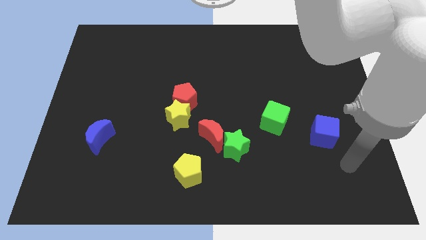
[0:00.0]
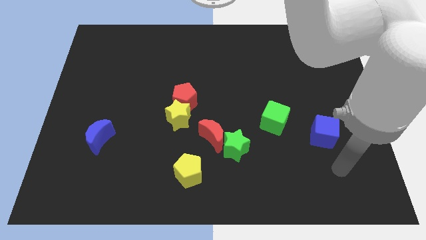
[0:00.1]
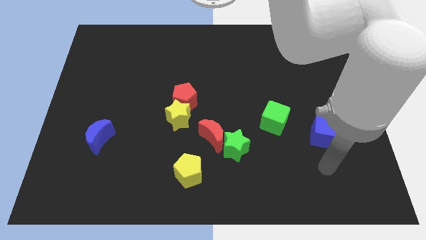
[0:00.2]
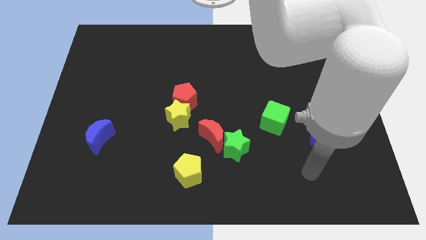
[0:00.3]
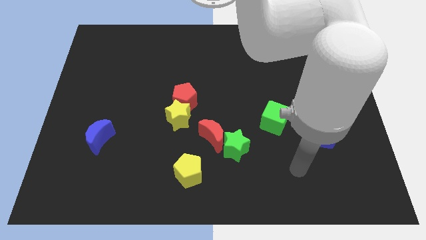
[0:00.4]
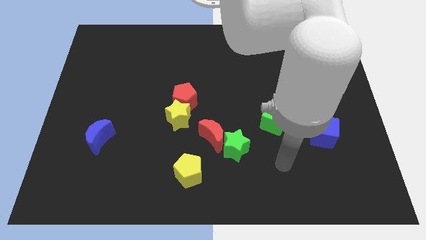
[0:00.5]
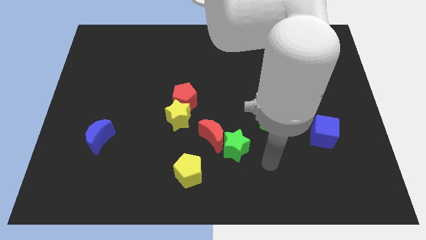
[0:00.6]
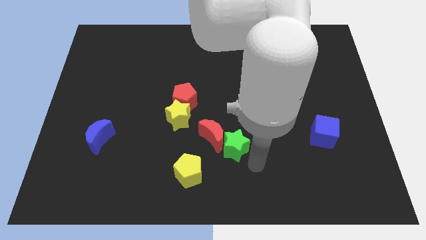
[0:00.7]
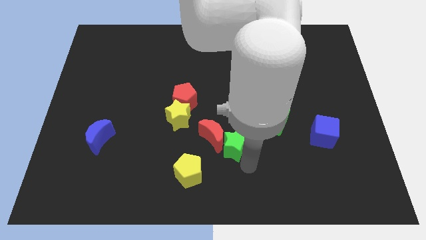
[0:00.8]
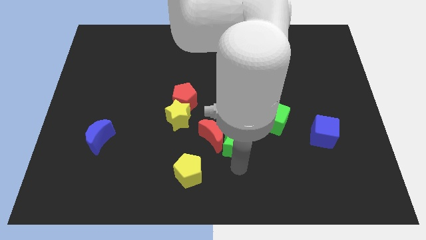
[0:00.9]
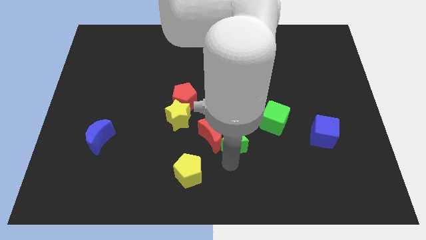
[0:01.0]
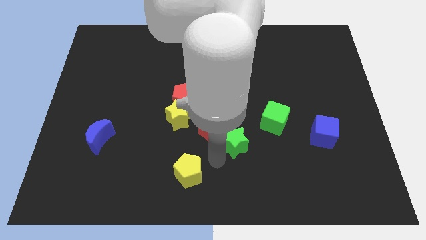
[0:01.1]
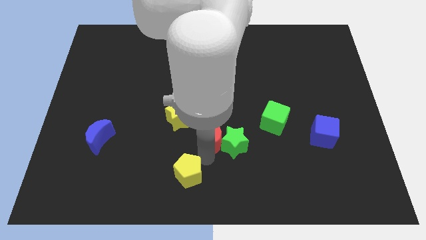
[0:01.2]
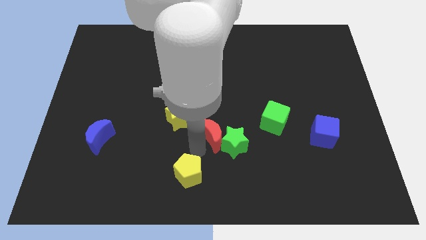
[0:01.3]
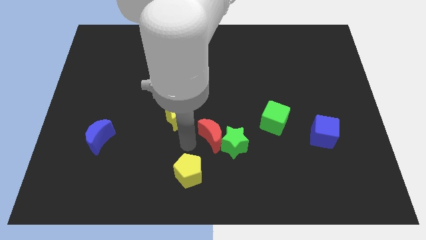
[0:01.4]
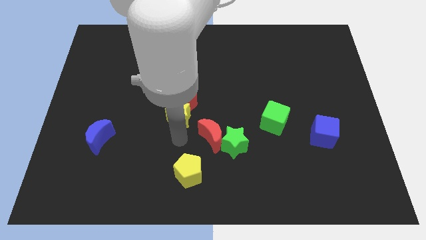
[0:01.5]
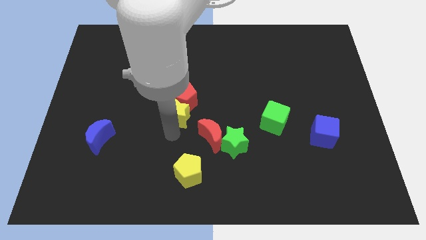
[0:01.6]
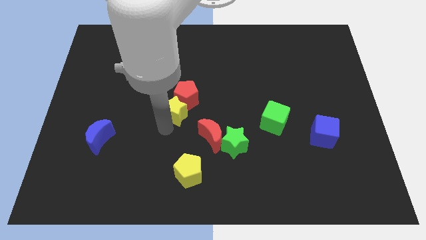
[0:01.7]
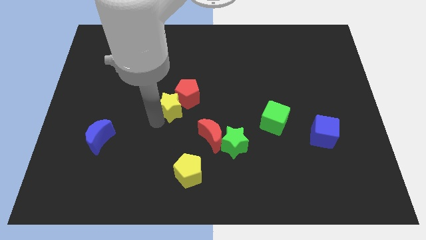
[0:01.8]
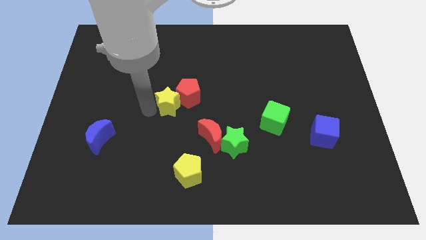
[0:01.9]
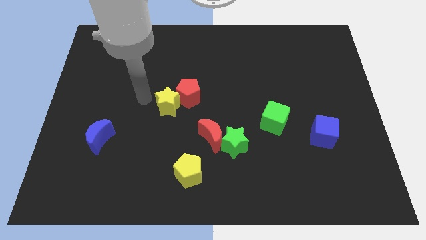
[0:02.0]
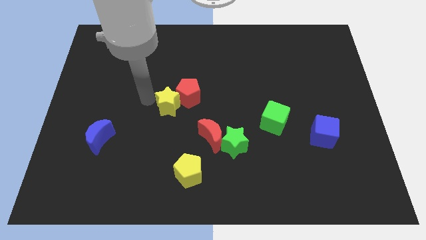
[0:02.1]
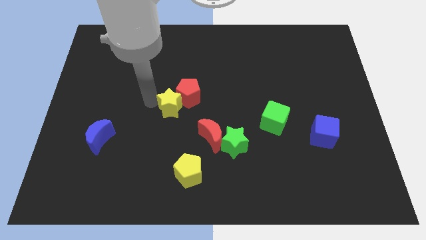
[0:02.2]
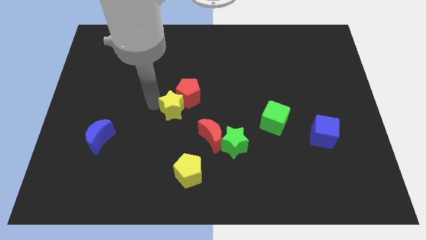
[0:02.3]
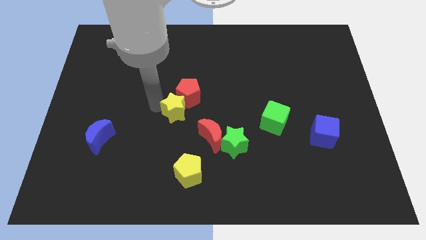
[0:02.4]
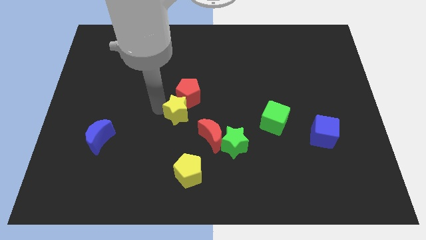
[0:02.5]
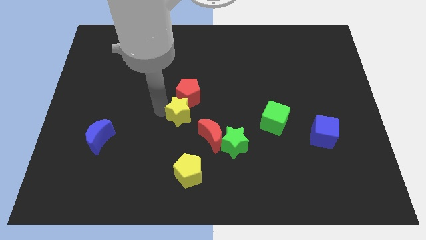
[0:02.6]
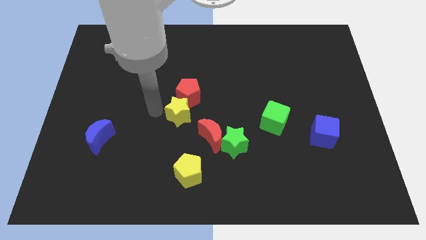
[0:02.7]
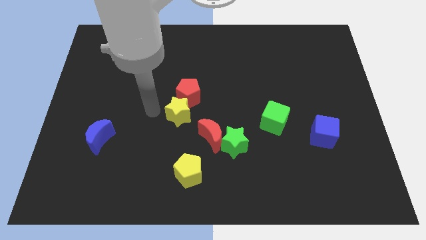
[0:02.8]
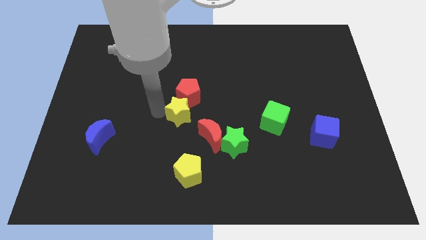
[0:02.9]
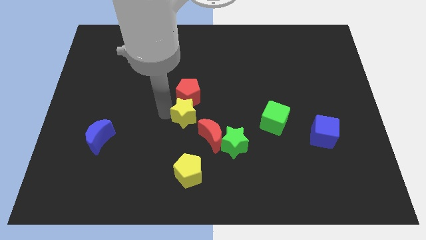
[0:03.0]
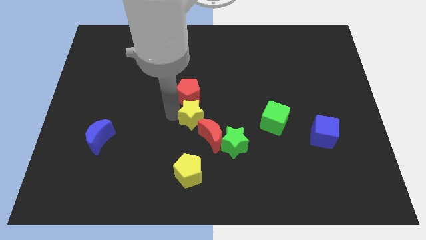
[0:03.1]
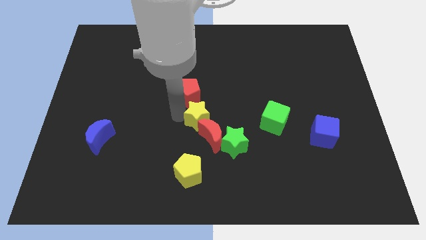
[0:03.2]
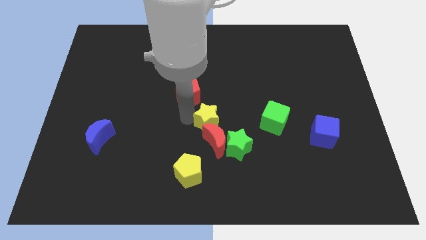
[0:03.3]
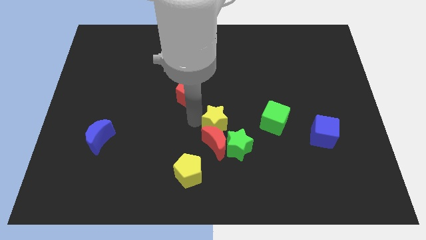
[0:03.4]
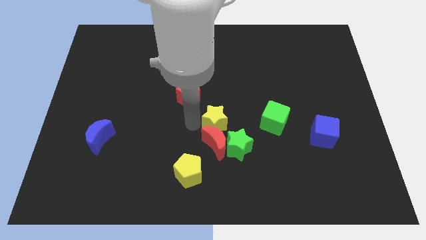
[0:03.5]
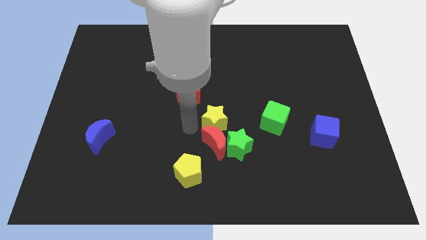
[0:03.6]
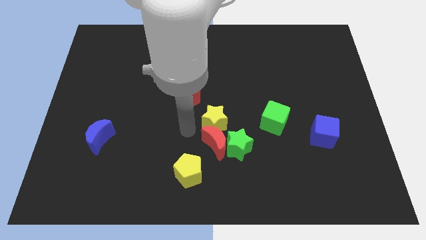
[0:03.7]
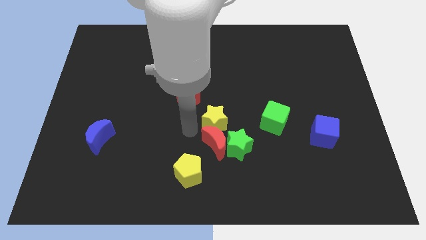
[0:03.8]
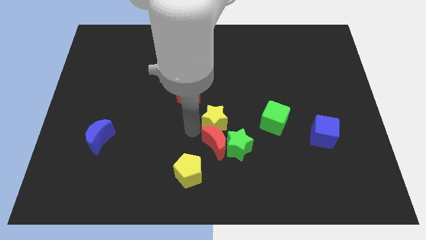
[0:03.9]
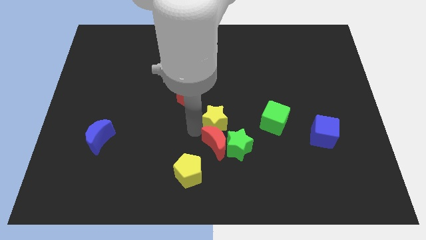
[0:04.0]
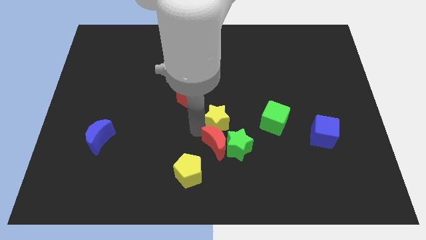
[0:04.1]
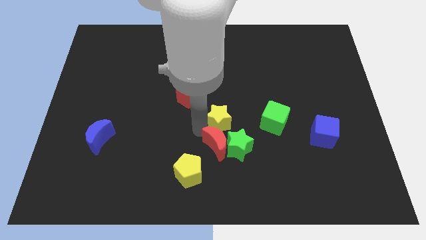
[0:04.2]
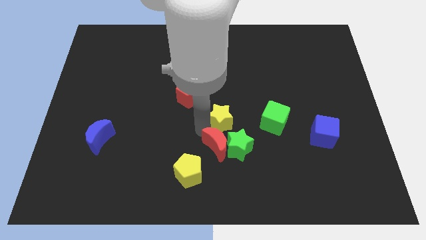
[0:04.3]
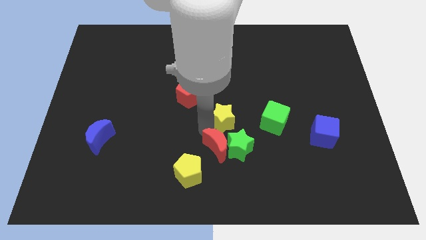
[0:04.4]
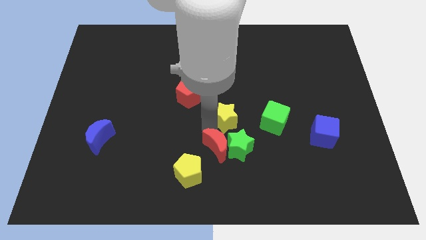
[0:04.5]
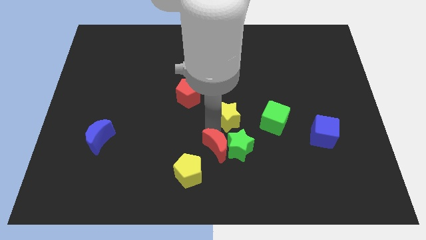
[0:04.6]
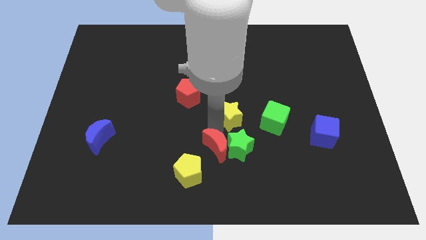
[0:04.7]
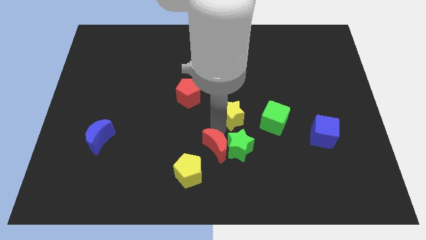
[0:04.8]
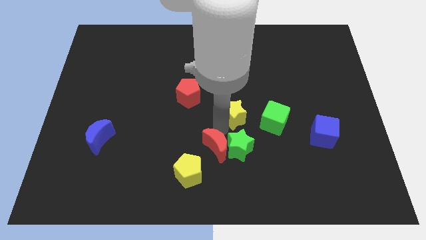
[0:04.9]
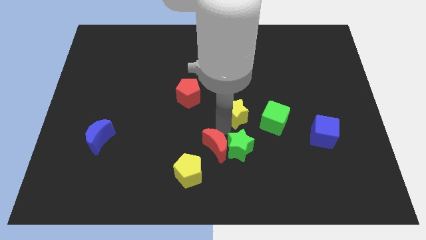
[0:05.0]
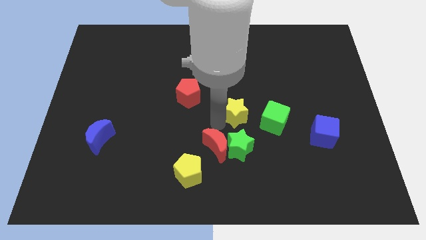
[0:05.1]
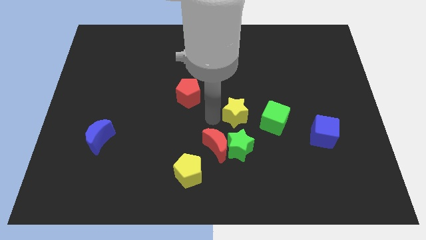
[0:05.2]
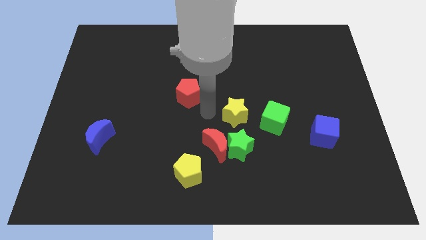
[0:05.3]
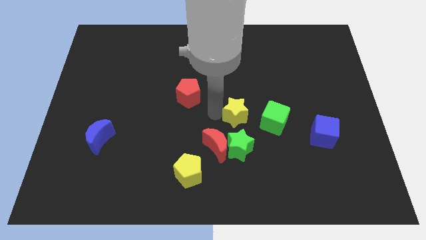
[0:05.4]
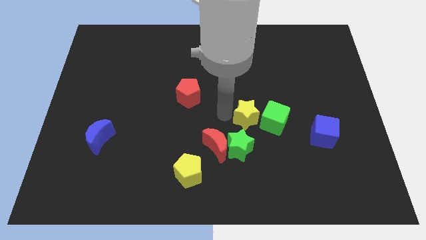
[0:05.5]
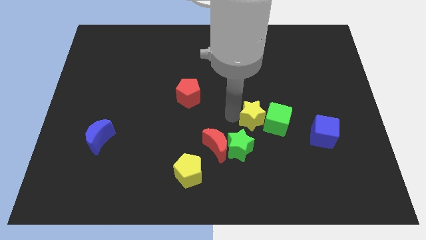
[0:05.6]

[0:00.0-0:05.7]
push the yellow star next to the green cube
